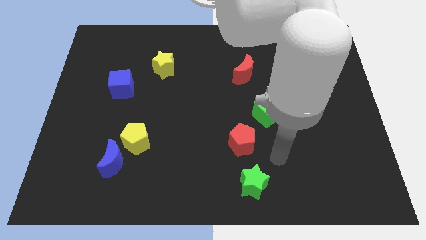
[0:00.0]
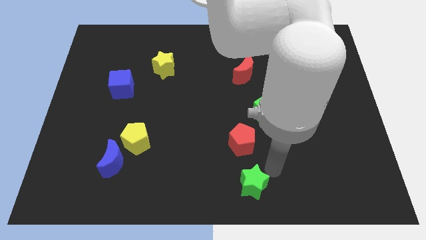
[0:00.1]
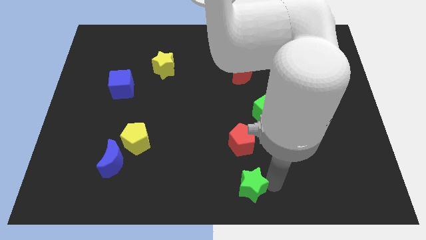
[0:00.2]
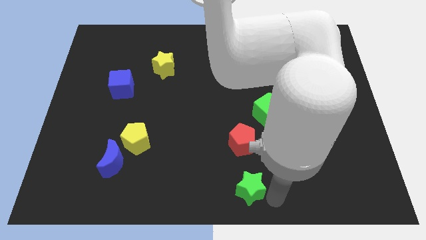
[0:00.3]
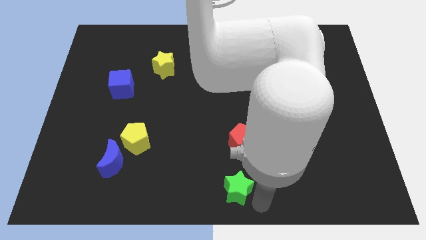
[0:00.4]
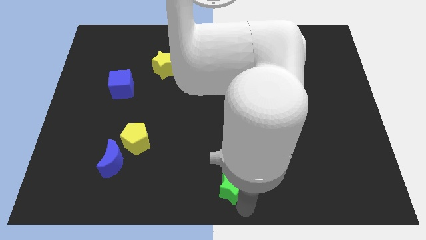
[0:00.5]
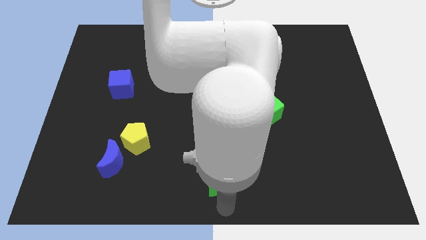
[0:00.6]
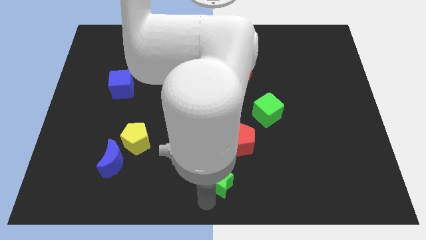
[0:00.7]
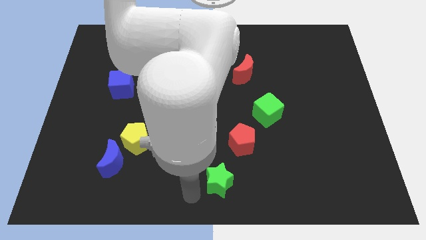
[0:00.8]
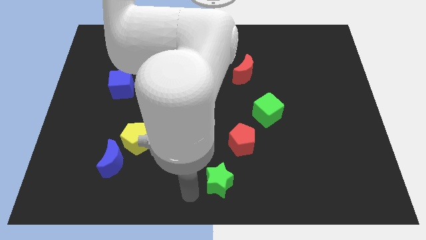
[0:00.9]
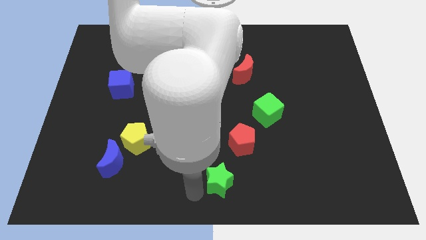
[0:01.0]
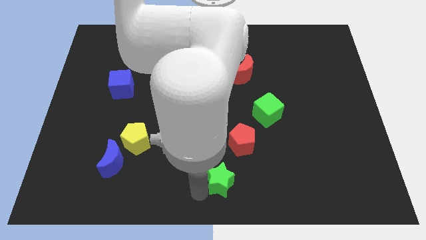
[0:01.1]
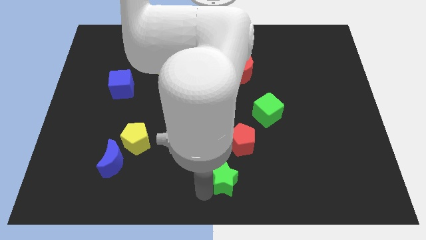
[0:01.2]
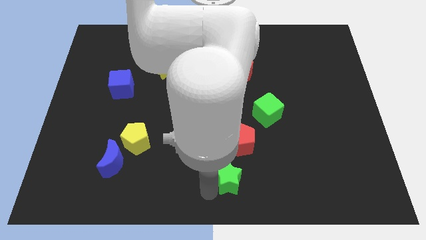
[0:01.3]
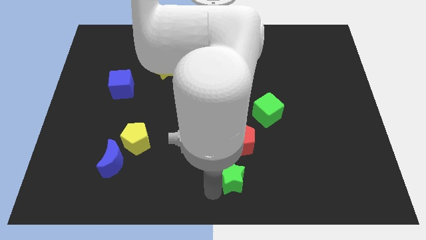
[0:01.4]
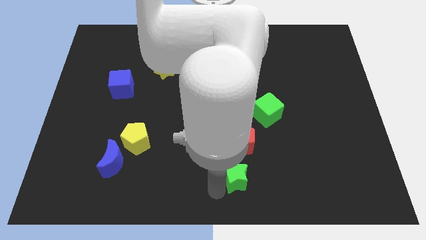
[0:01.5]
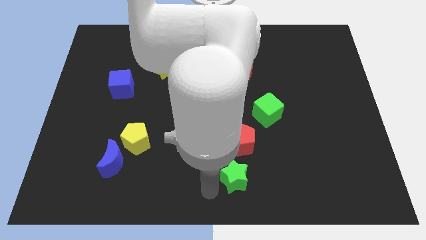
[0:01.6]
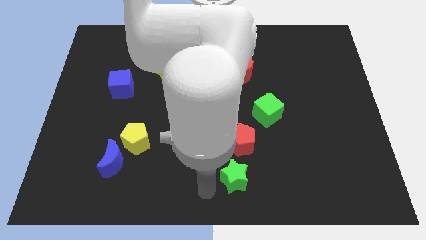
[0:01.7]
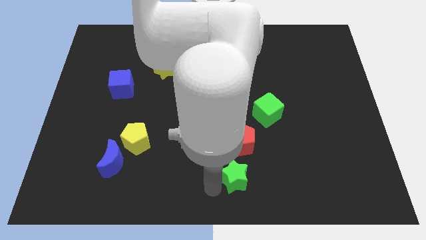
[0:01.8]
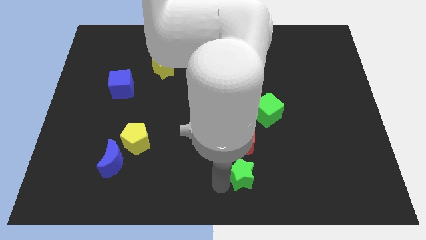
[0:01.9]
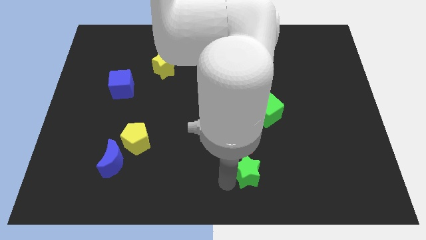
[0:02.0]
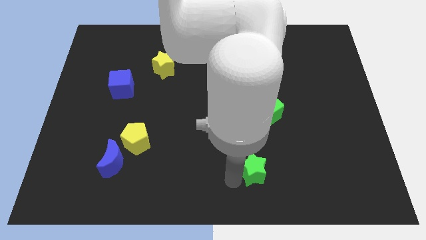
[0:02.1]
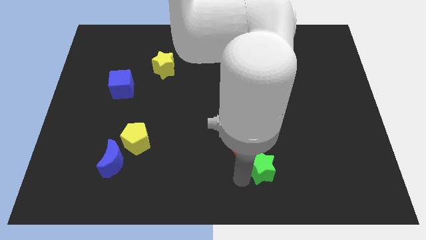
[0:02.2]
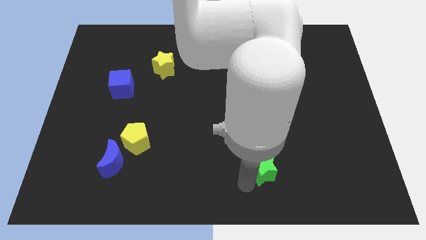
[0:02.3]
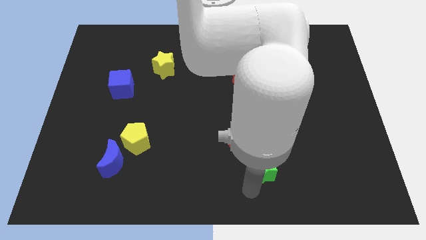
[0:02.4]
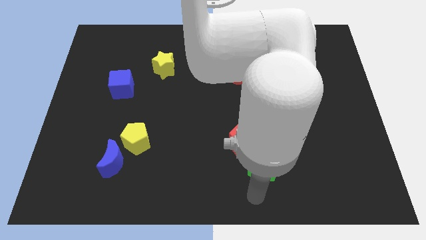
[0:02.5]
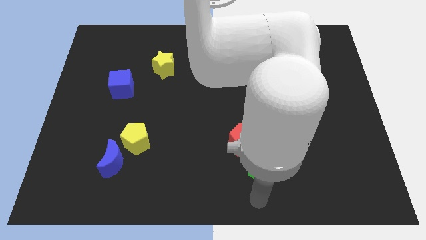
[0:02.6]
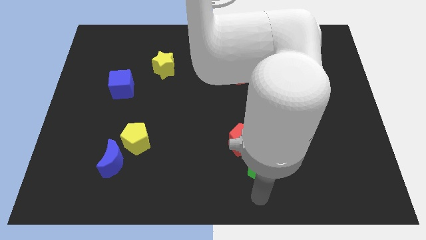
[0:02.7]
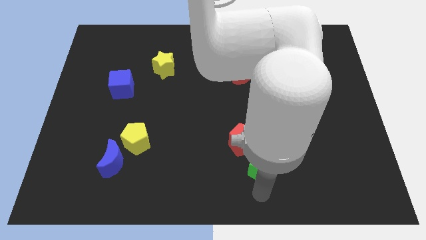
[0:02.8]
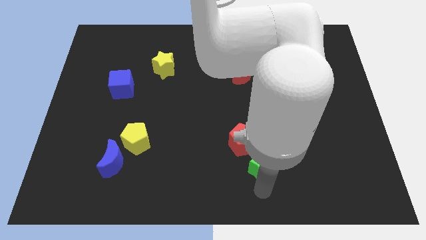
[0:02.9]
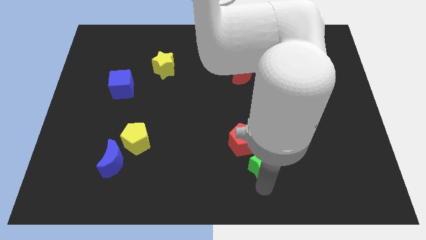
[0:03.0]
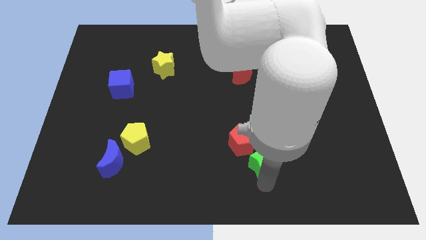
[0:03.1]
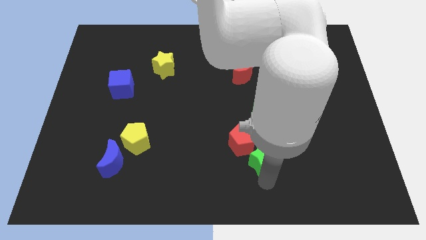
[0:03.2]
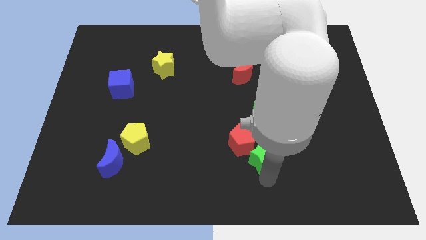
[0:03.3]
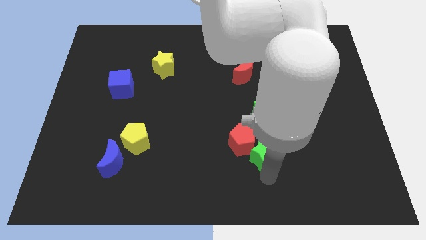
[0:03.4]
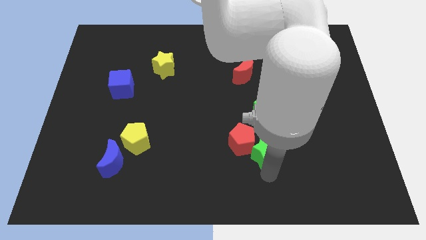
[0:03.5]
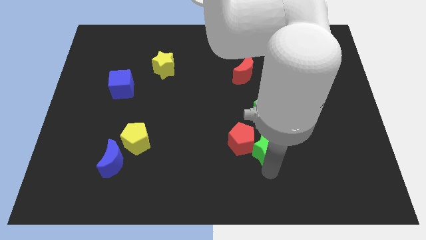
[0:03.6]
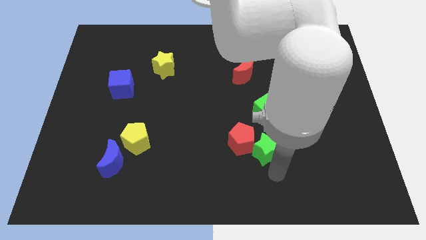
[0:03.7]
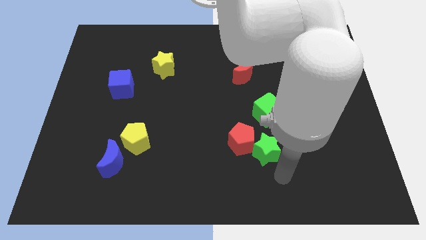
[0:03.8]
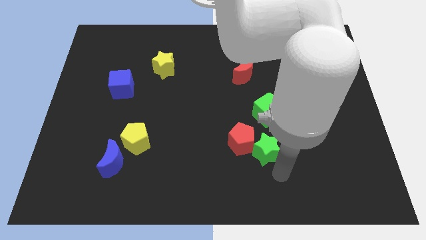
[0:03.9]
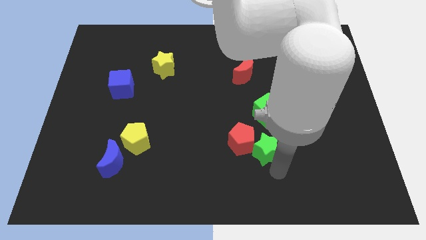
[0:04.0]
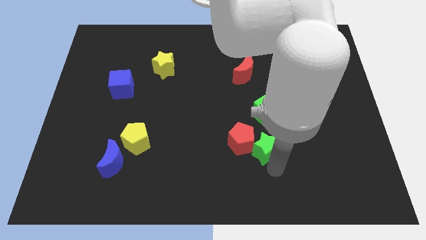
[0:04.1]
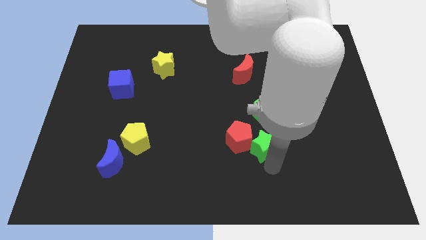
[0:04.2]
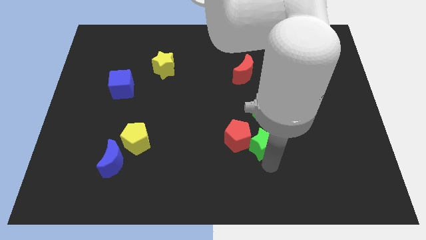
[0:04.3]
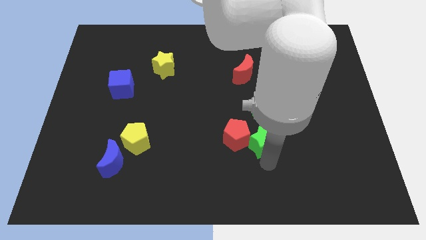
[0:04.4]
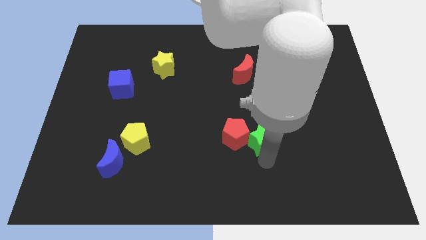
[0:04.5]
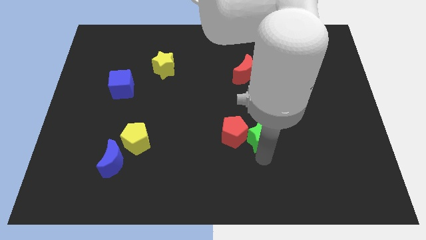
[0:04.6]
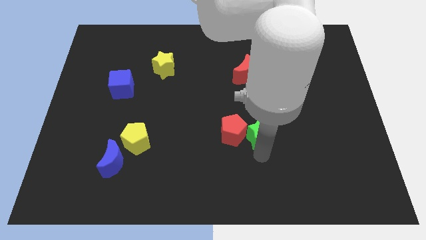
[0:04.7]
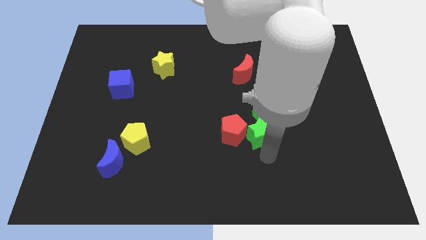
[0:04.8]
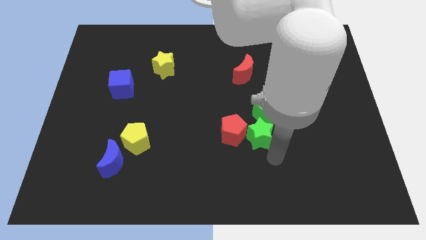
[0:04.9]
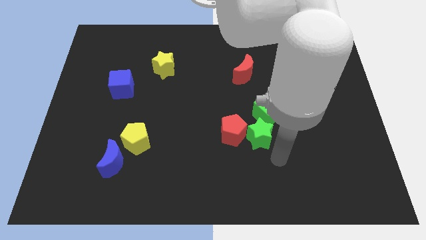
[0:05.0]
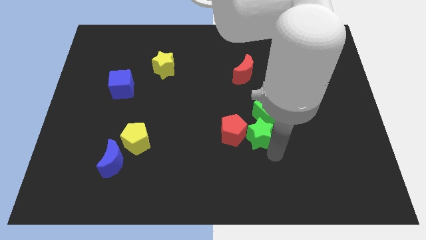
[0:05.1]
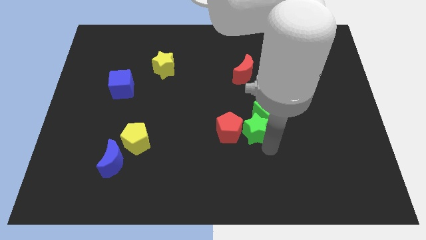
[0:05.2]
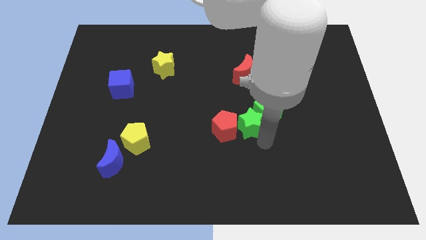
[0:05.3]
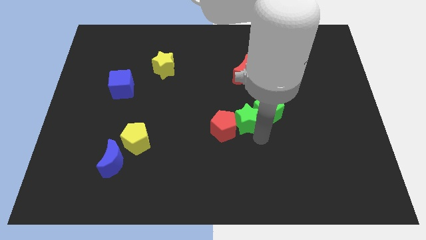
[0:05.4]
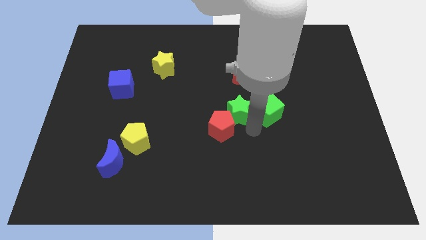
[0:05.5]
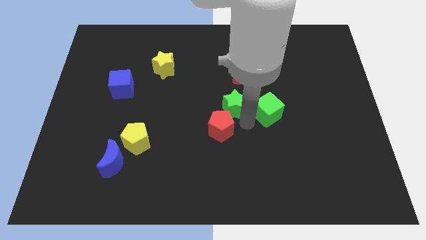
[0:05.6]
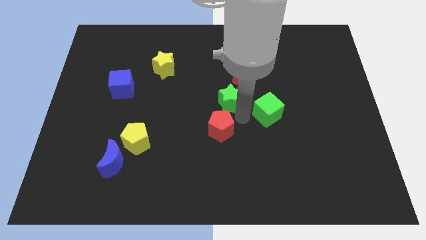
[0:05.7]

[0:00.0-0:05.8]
push the green star to the bottom left side of the red moon

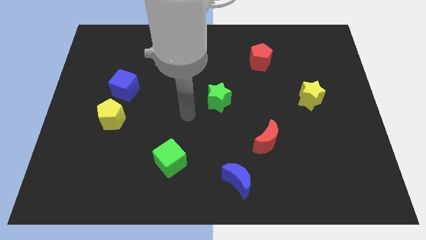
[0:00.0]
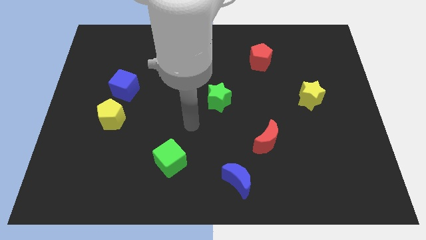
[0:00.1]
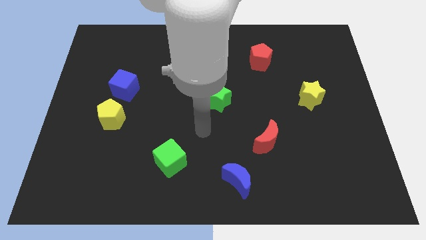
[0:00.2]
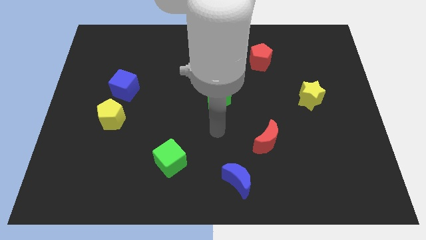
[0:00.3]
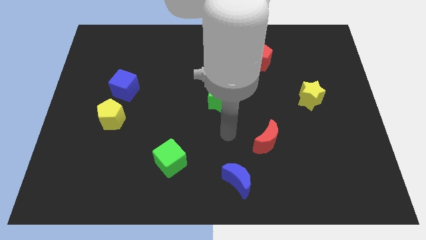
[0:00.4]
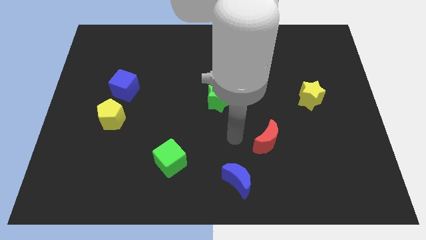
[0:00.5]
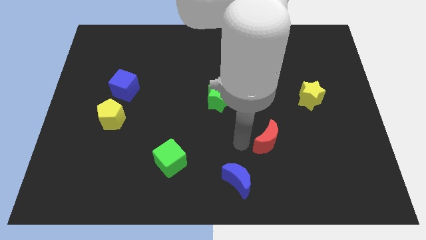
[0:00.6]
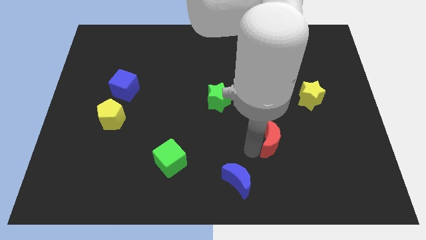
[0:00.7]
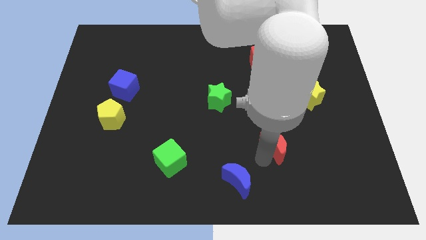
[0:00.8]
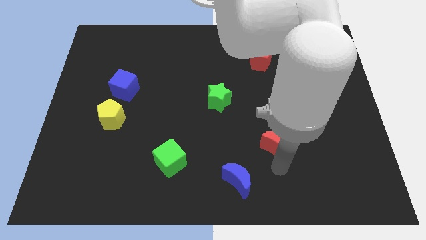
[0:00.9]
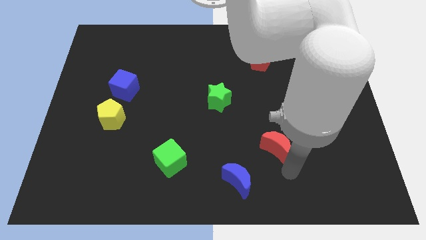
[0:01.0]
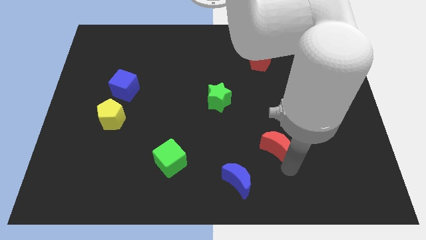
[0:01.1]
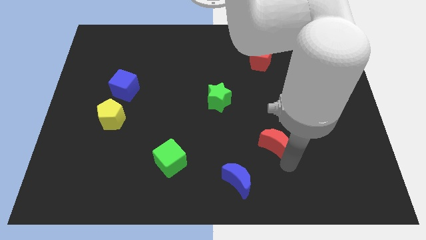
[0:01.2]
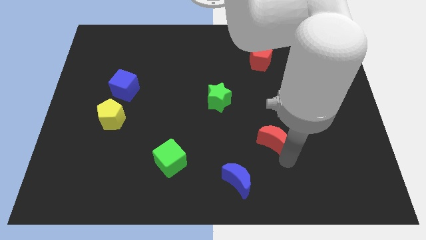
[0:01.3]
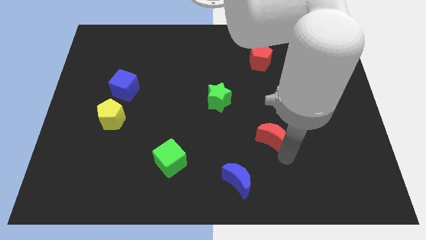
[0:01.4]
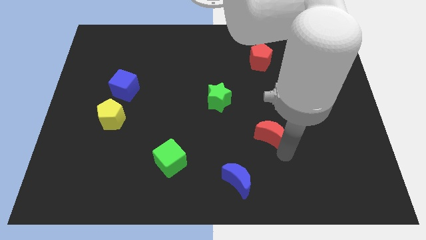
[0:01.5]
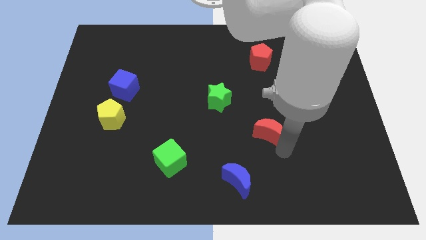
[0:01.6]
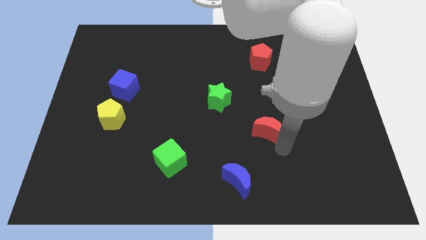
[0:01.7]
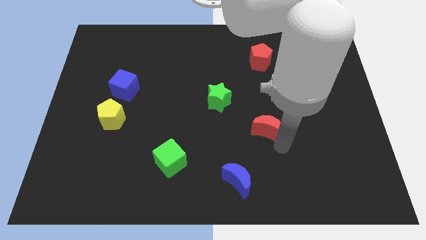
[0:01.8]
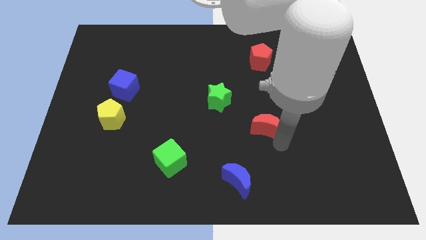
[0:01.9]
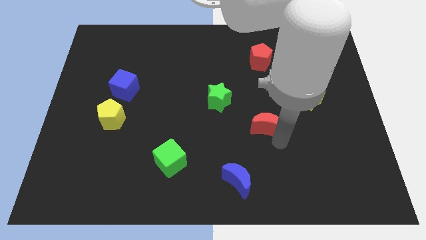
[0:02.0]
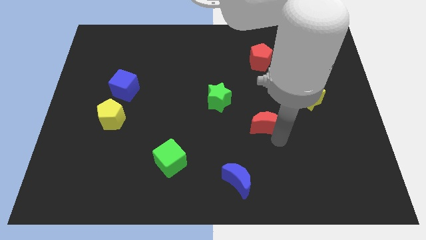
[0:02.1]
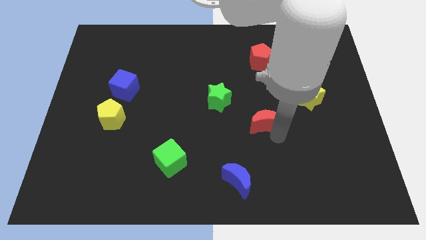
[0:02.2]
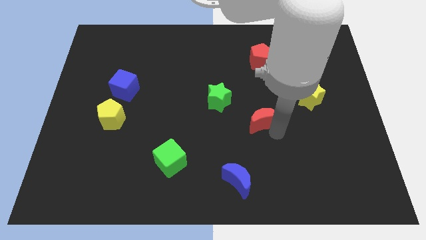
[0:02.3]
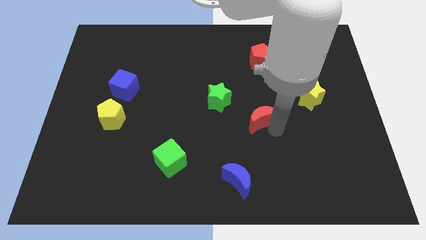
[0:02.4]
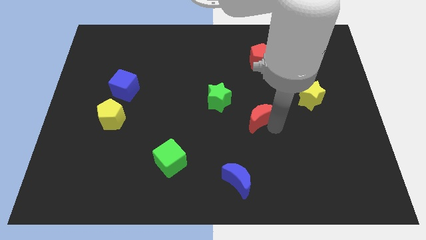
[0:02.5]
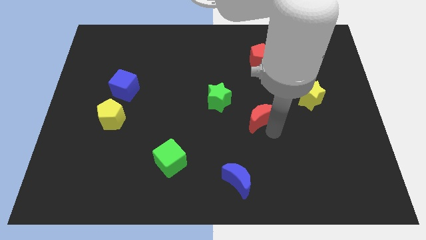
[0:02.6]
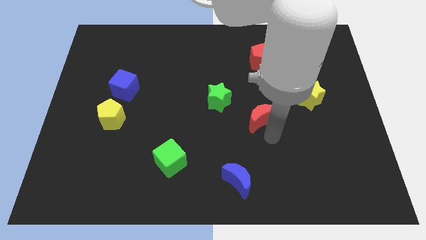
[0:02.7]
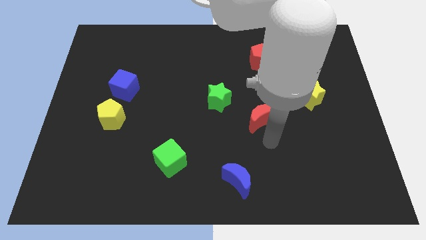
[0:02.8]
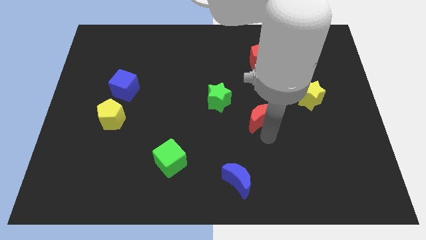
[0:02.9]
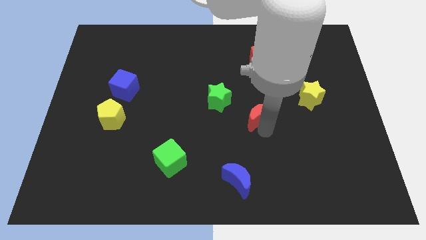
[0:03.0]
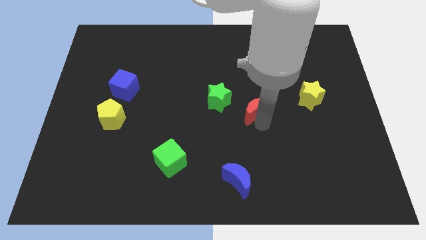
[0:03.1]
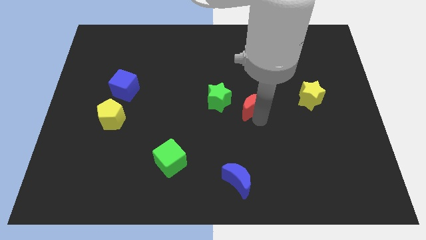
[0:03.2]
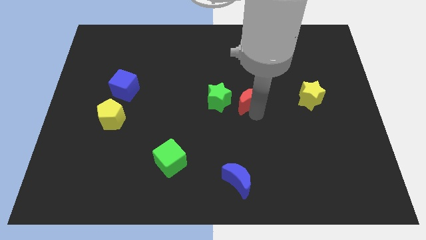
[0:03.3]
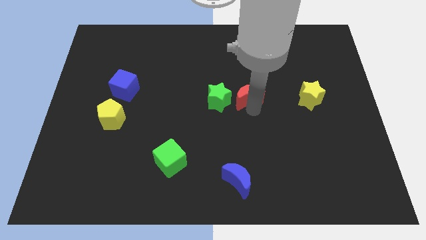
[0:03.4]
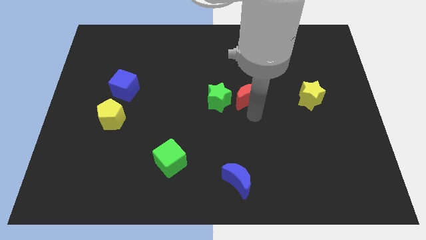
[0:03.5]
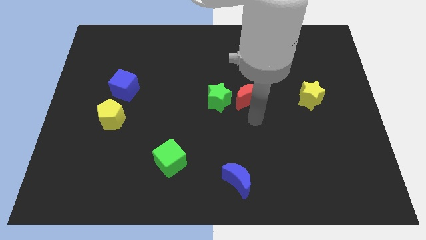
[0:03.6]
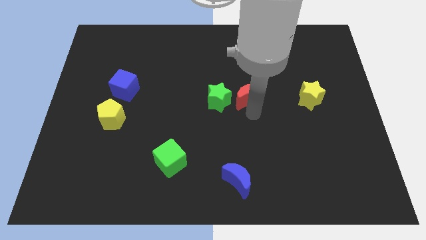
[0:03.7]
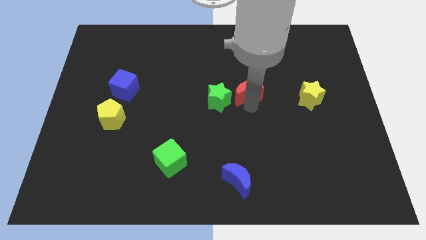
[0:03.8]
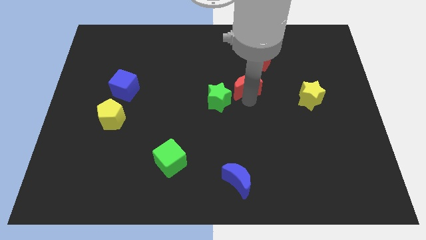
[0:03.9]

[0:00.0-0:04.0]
push the red moon to the bottom left side of the red pentagon
